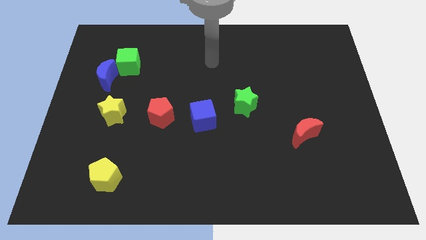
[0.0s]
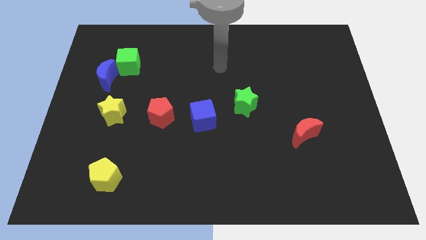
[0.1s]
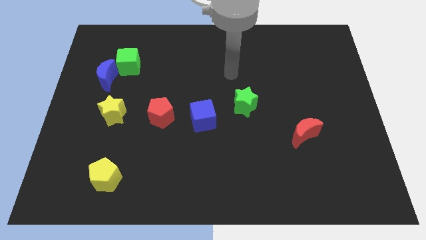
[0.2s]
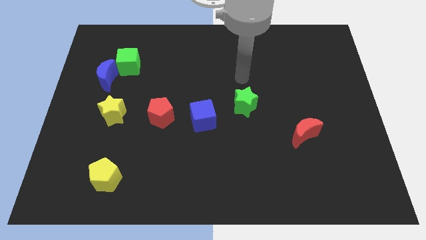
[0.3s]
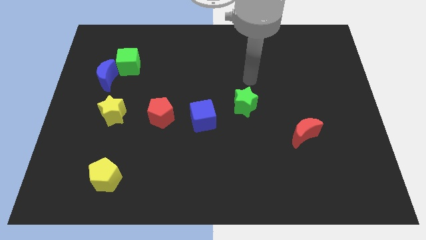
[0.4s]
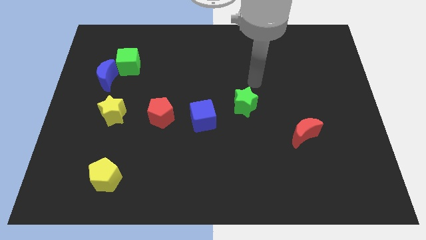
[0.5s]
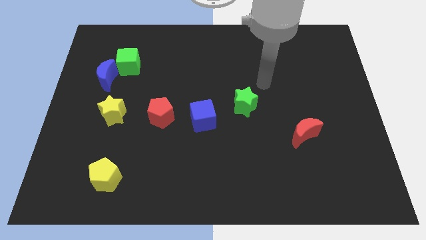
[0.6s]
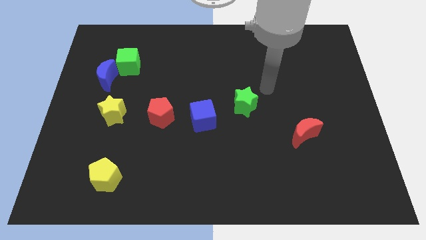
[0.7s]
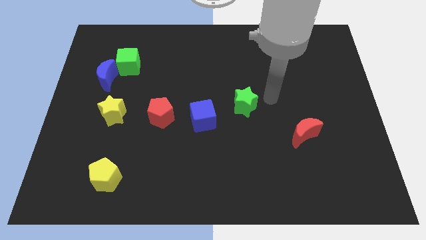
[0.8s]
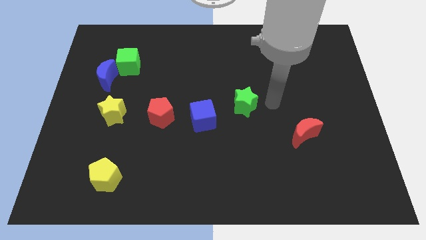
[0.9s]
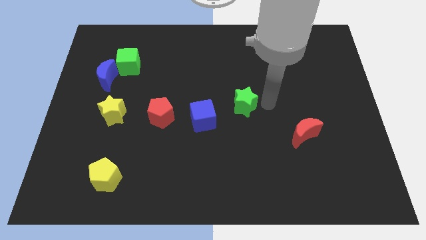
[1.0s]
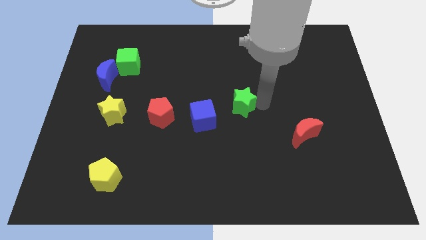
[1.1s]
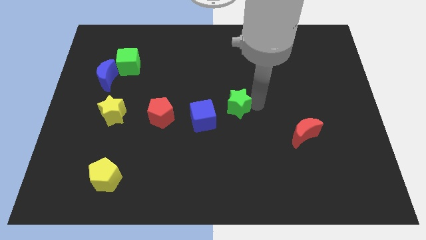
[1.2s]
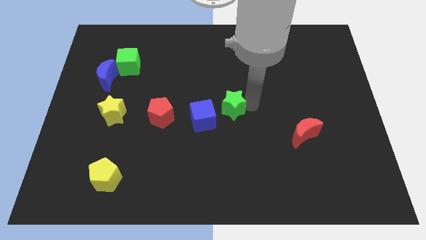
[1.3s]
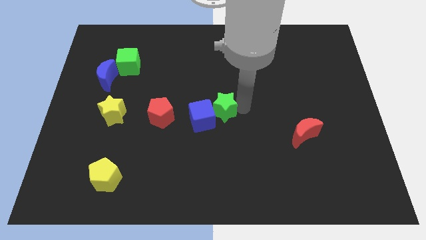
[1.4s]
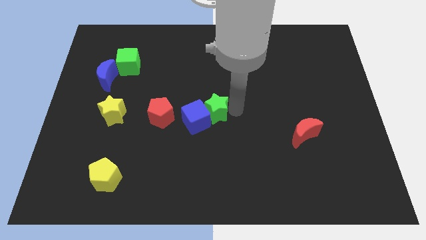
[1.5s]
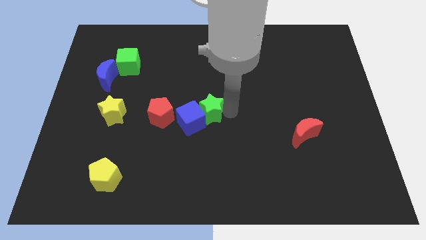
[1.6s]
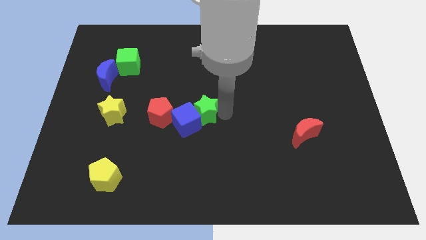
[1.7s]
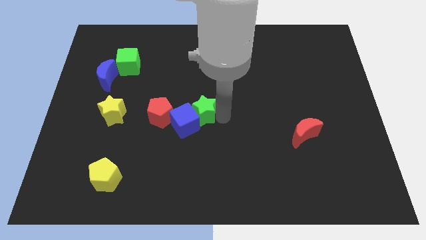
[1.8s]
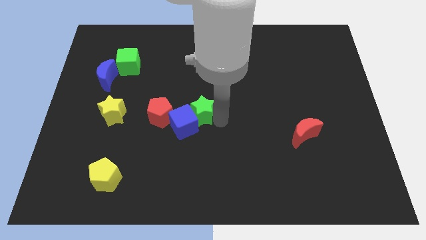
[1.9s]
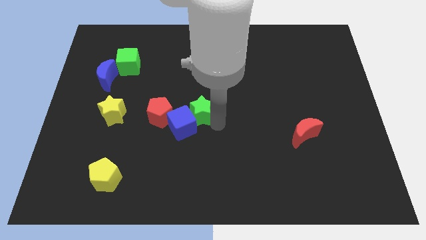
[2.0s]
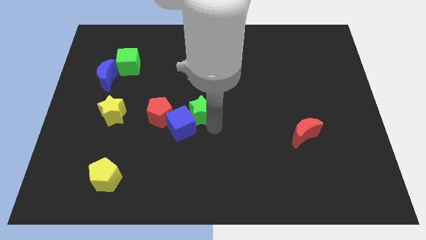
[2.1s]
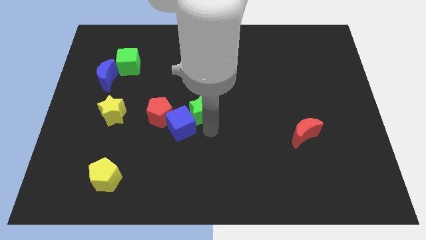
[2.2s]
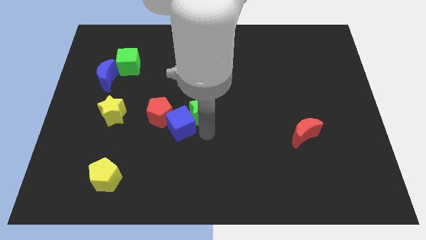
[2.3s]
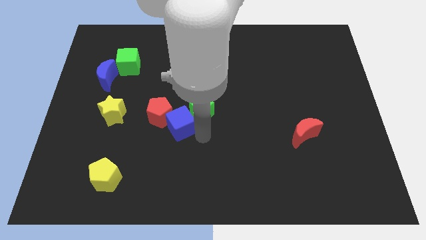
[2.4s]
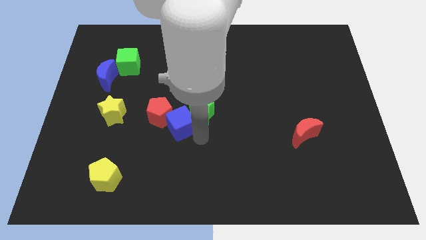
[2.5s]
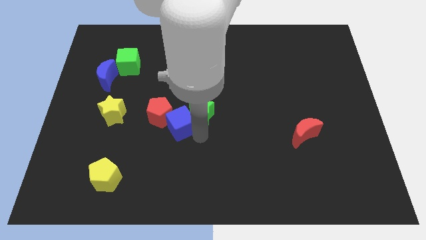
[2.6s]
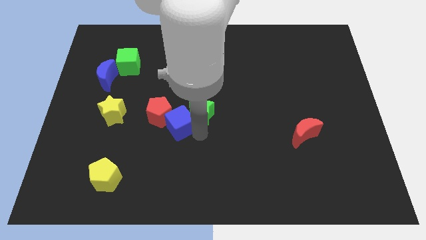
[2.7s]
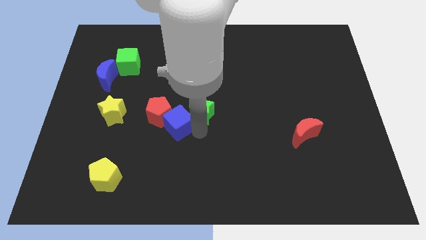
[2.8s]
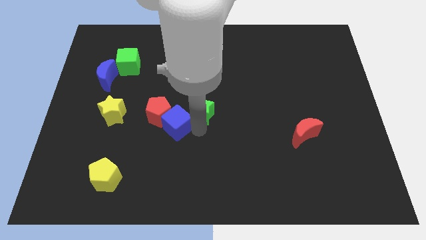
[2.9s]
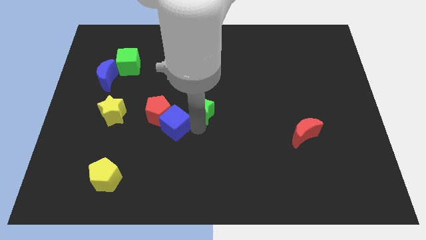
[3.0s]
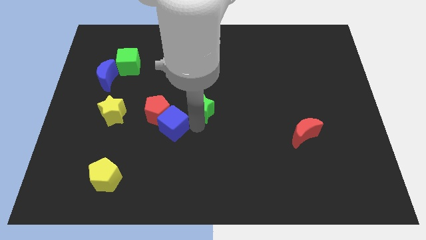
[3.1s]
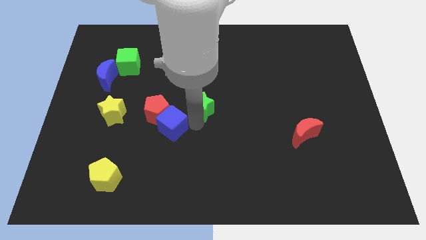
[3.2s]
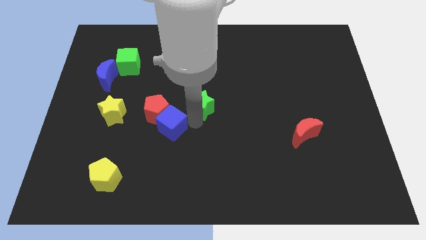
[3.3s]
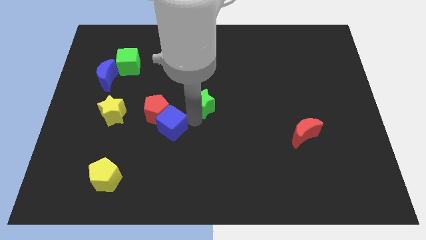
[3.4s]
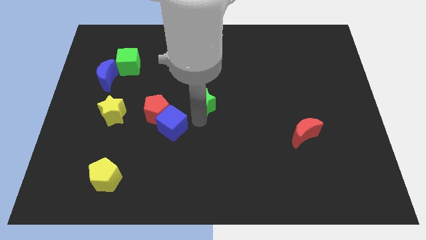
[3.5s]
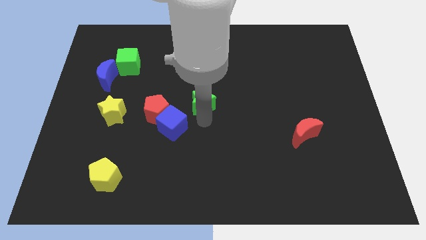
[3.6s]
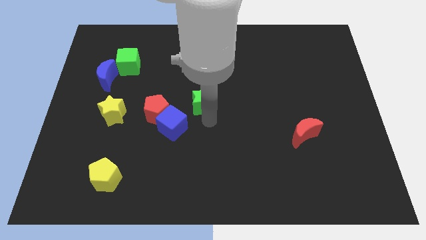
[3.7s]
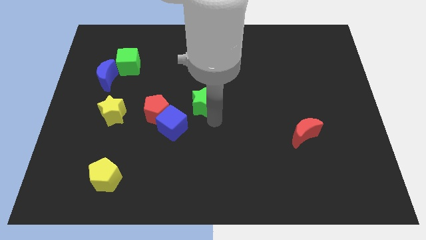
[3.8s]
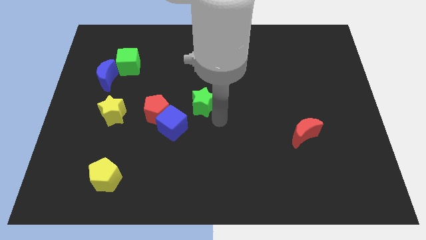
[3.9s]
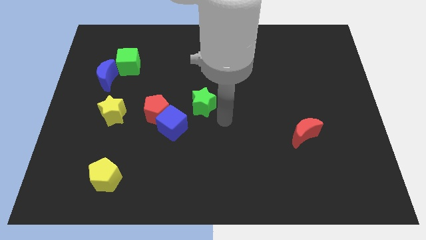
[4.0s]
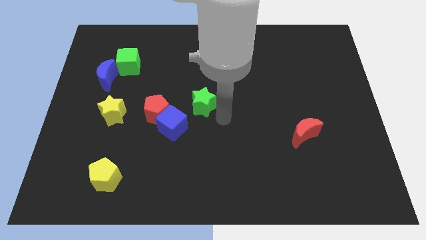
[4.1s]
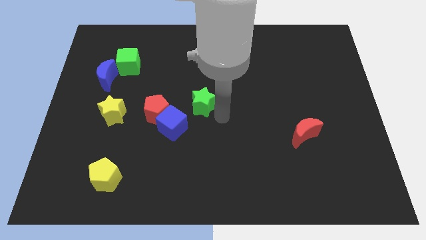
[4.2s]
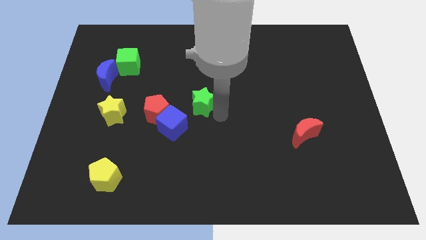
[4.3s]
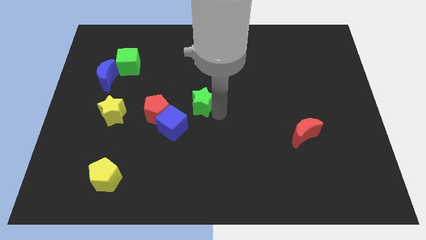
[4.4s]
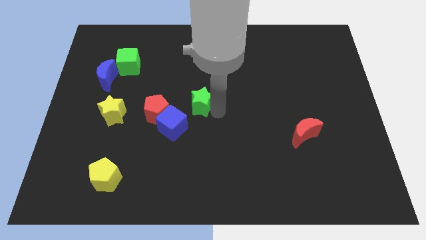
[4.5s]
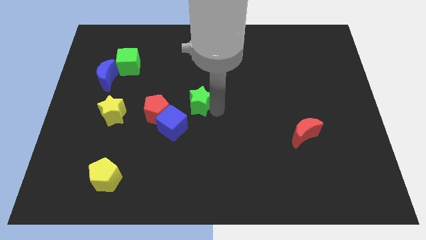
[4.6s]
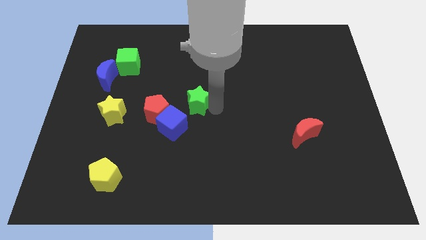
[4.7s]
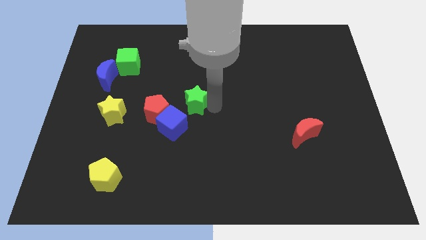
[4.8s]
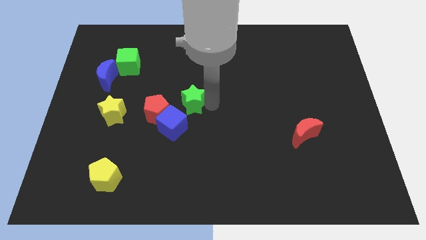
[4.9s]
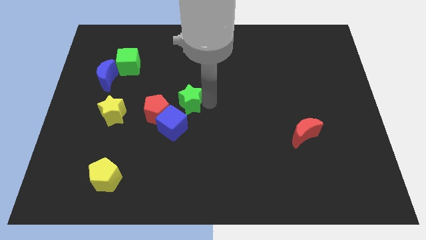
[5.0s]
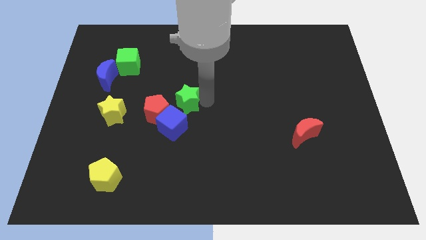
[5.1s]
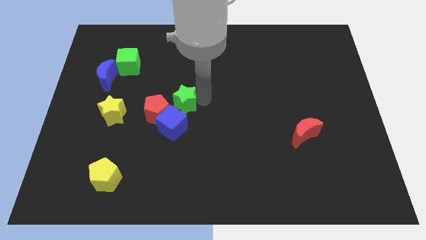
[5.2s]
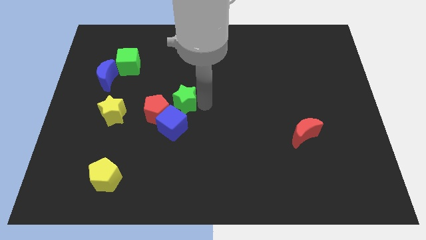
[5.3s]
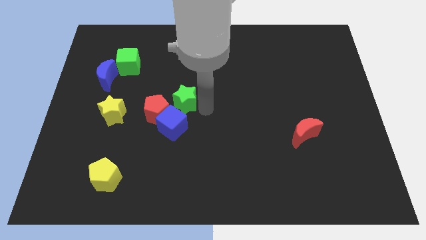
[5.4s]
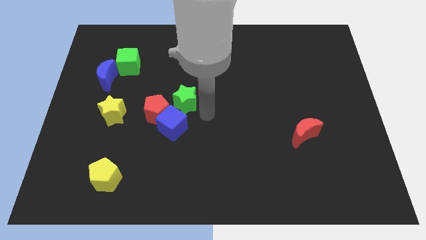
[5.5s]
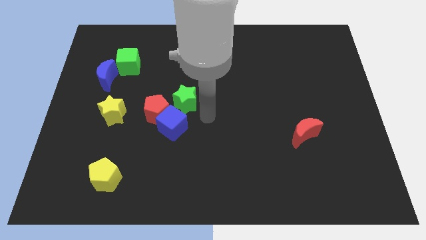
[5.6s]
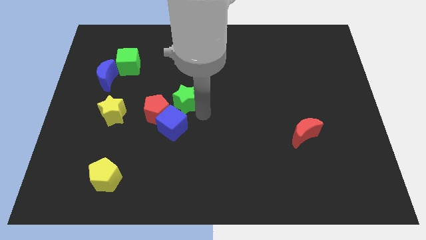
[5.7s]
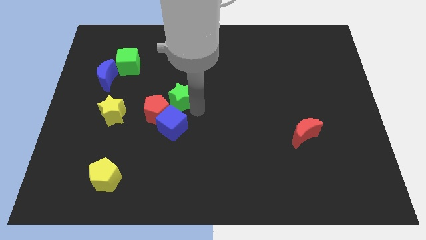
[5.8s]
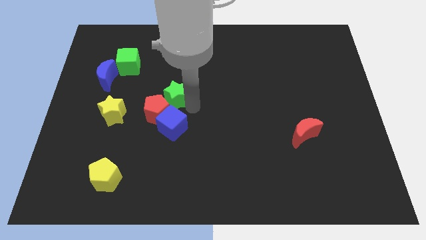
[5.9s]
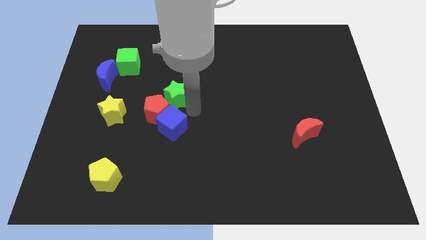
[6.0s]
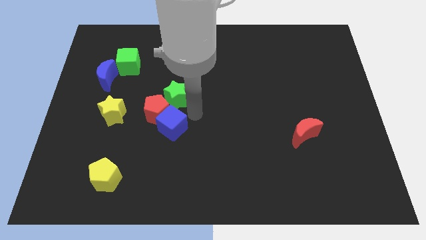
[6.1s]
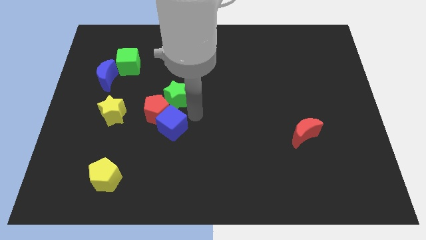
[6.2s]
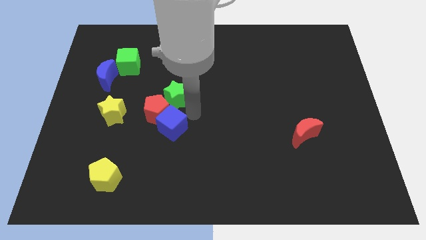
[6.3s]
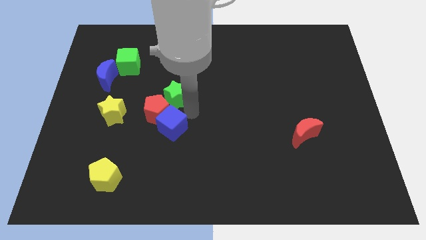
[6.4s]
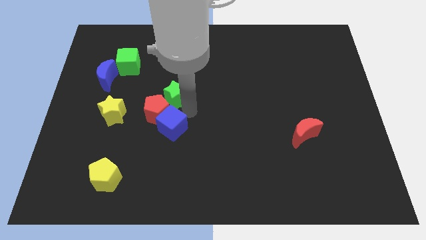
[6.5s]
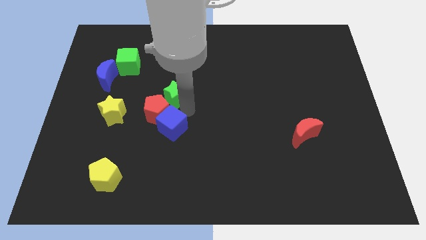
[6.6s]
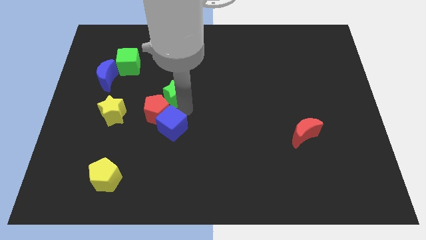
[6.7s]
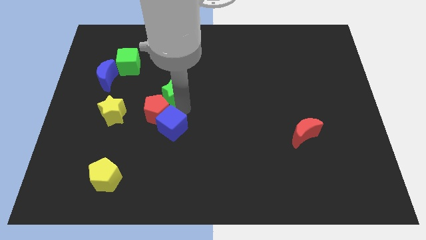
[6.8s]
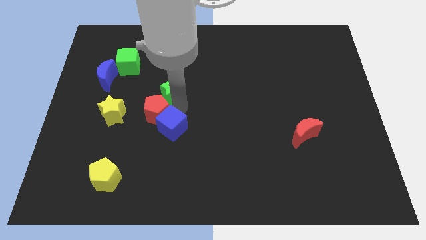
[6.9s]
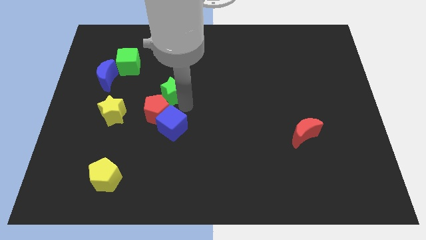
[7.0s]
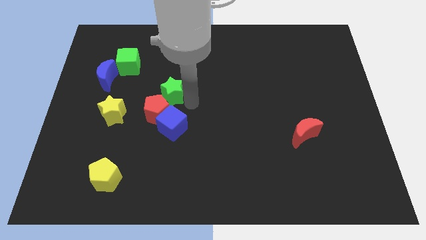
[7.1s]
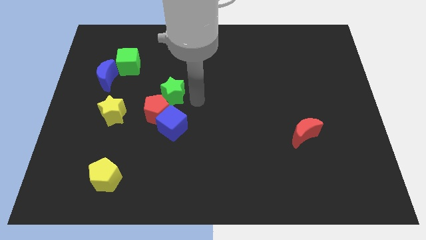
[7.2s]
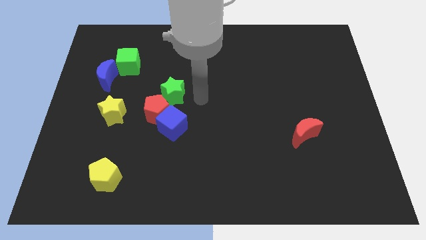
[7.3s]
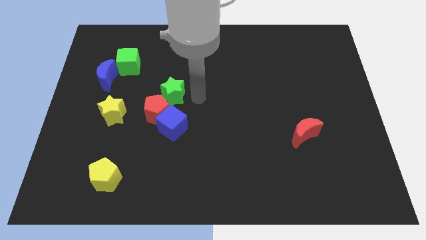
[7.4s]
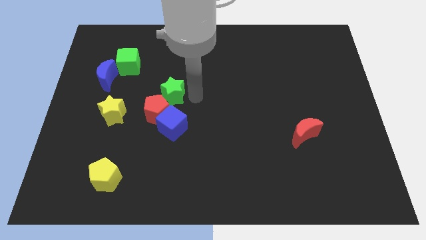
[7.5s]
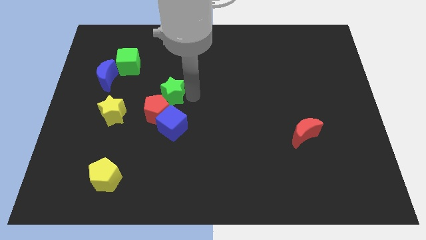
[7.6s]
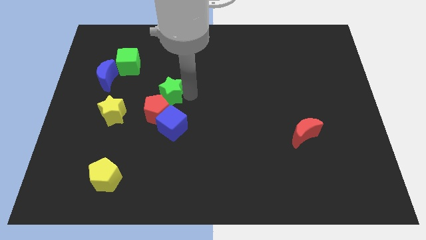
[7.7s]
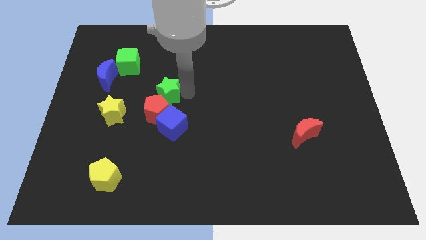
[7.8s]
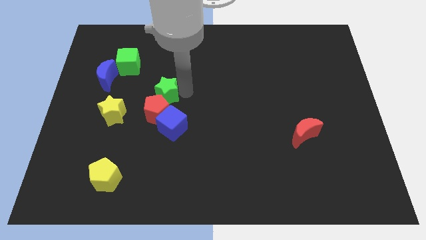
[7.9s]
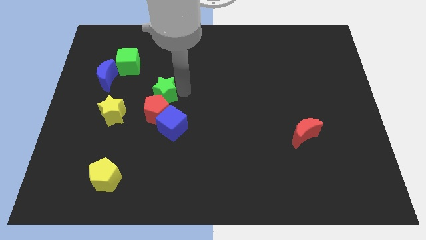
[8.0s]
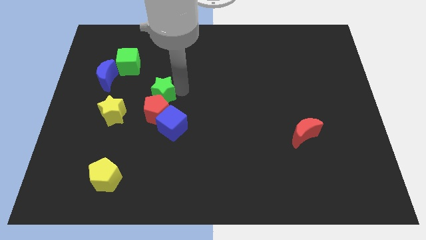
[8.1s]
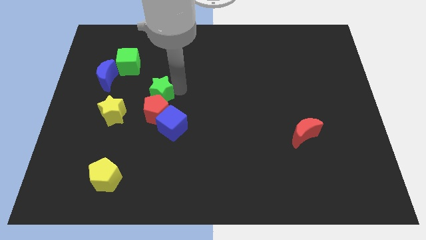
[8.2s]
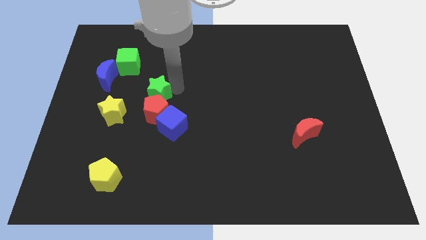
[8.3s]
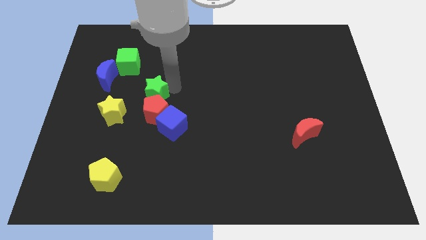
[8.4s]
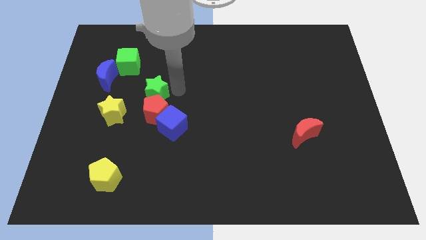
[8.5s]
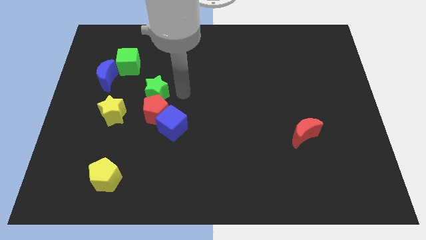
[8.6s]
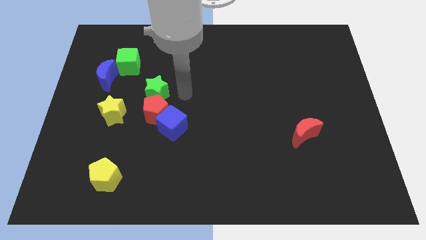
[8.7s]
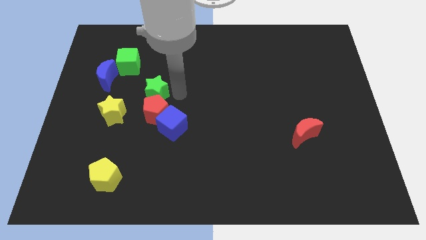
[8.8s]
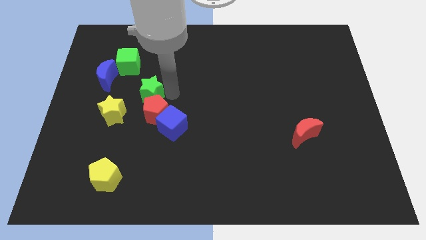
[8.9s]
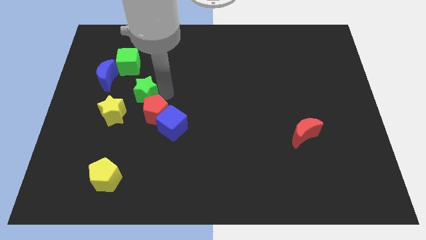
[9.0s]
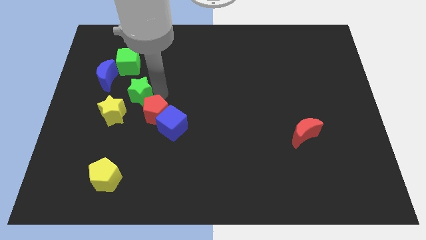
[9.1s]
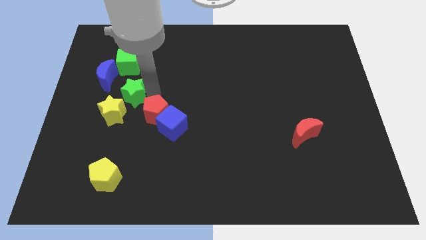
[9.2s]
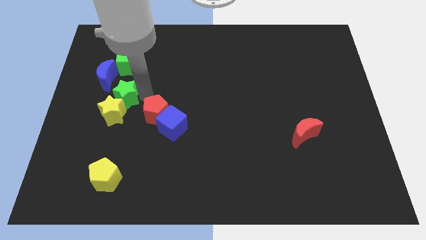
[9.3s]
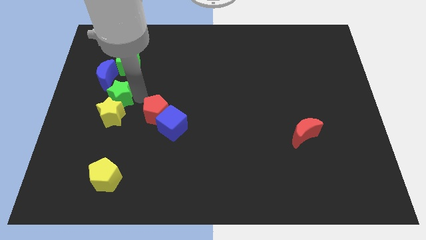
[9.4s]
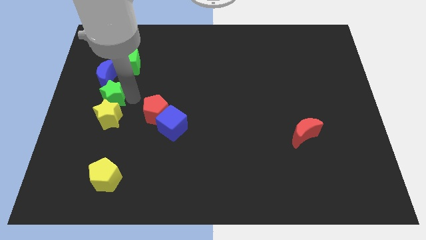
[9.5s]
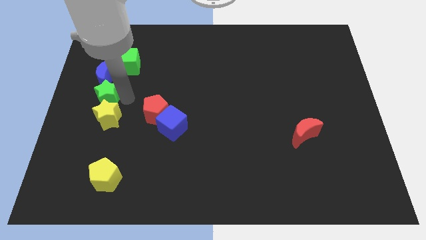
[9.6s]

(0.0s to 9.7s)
push the green star to the left side
